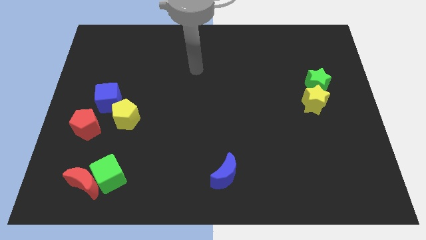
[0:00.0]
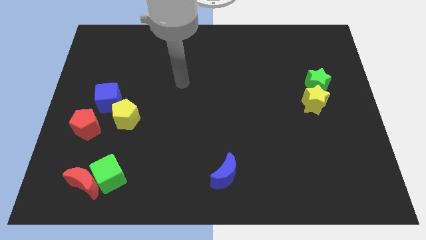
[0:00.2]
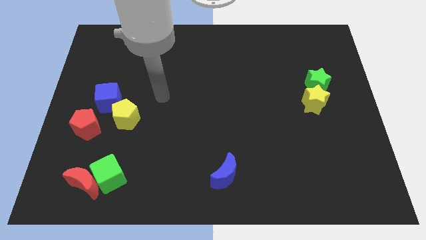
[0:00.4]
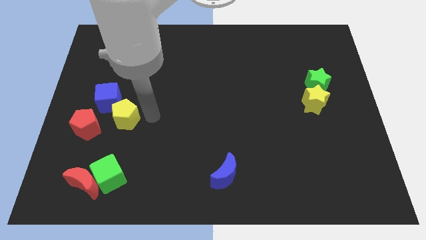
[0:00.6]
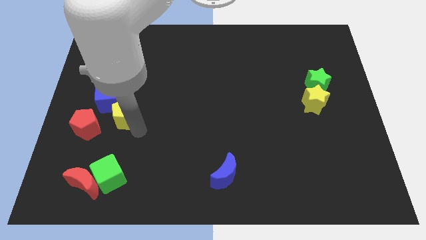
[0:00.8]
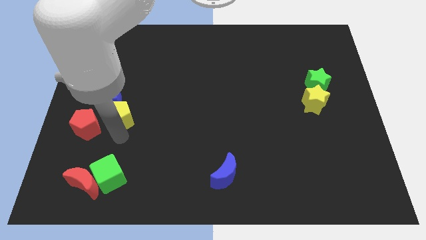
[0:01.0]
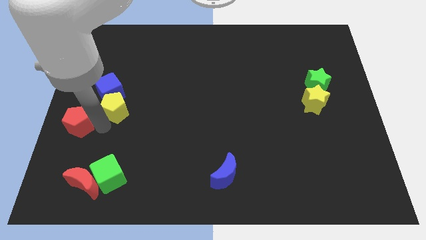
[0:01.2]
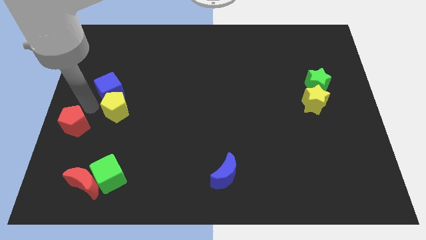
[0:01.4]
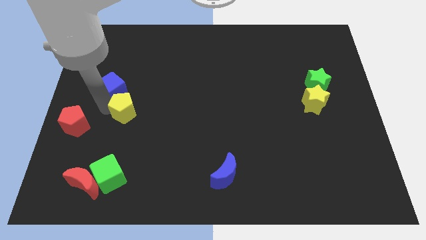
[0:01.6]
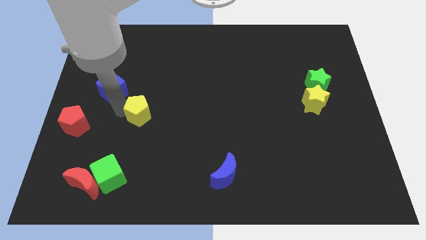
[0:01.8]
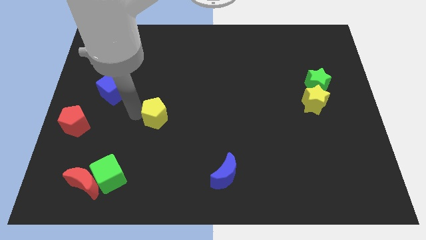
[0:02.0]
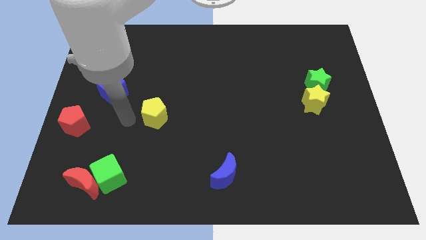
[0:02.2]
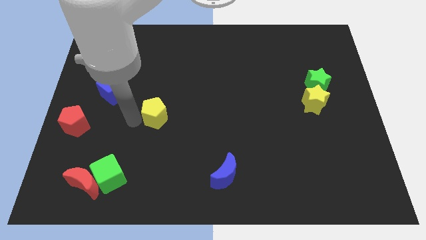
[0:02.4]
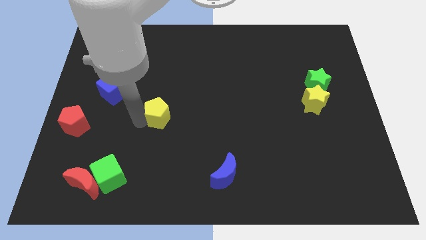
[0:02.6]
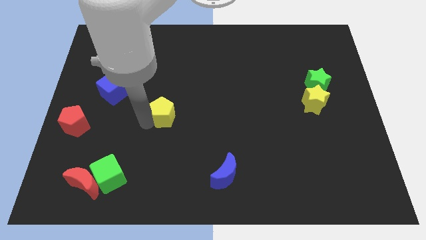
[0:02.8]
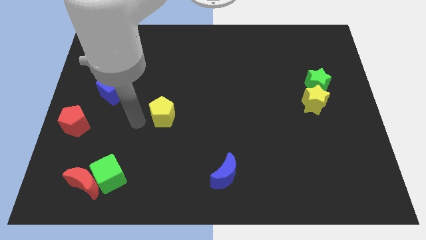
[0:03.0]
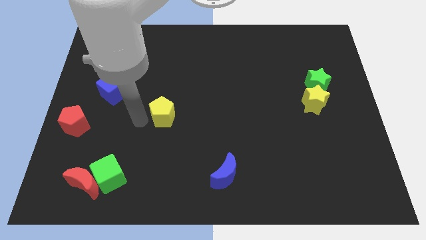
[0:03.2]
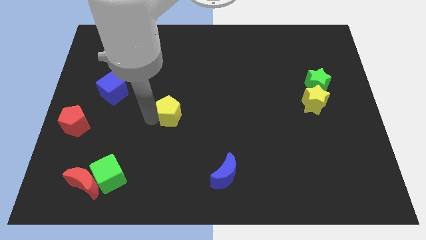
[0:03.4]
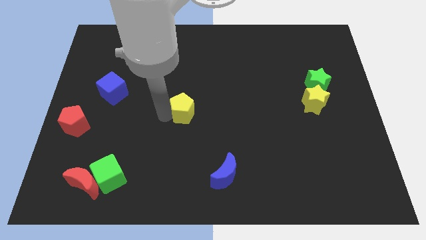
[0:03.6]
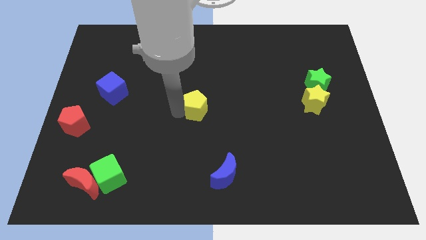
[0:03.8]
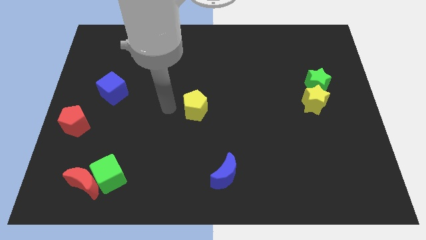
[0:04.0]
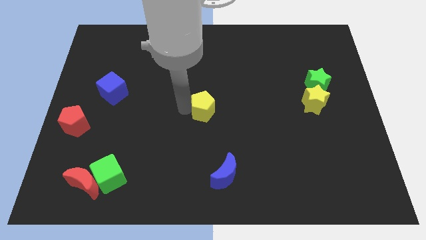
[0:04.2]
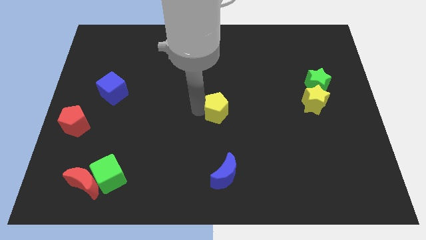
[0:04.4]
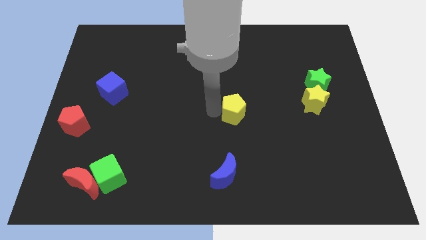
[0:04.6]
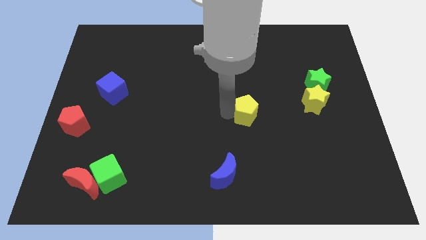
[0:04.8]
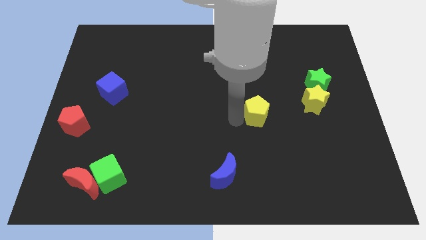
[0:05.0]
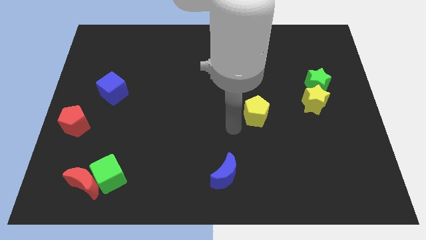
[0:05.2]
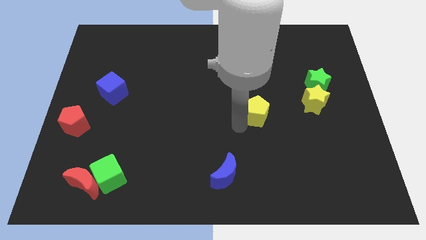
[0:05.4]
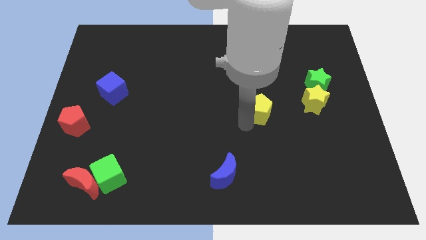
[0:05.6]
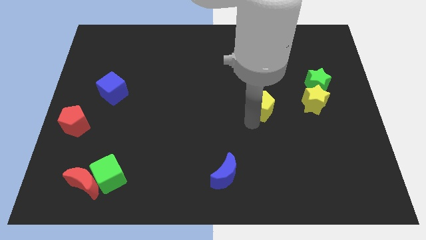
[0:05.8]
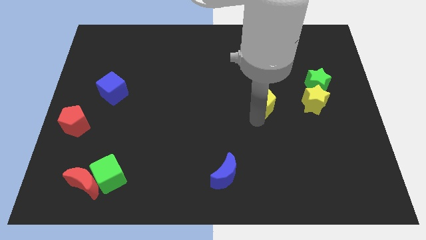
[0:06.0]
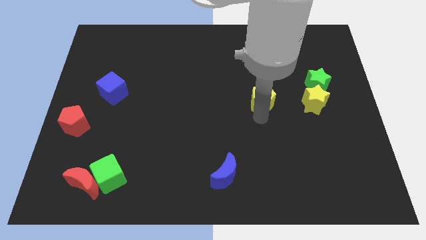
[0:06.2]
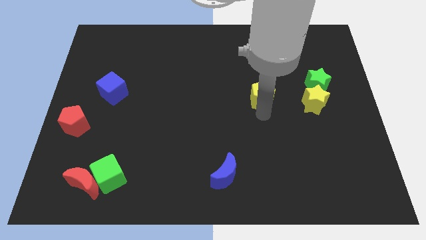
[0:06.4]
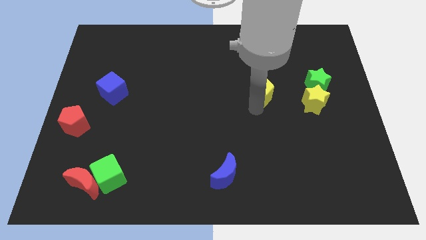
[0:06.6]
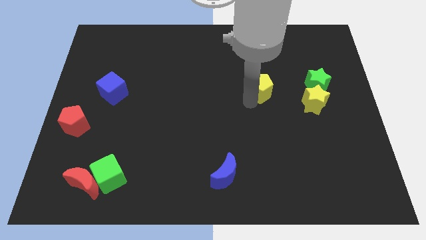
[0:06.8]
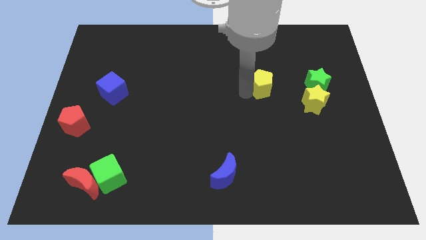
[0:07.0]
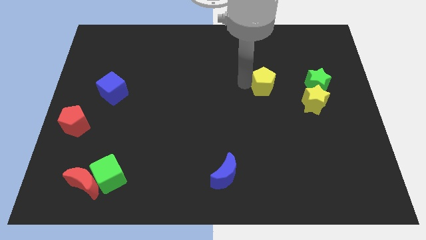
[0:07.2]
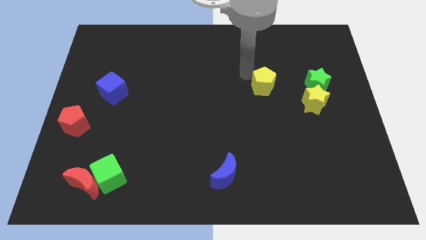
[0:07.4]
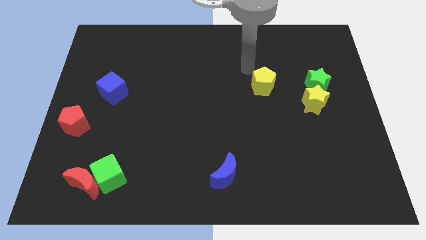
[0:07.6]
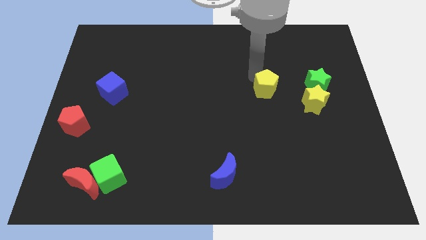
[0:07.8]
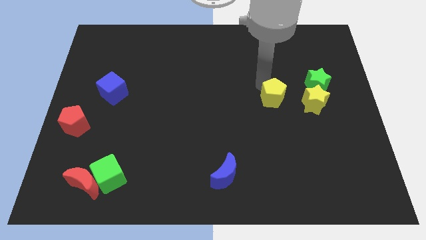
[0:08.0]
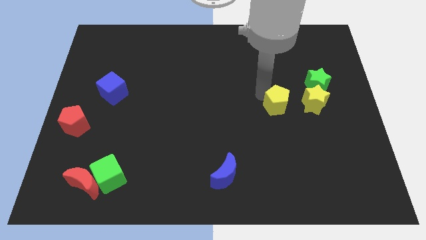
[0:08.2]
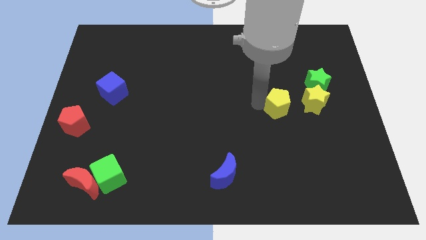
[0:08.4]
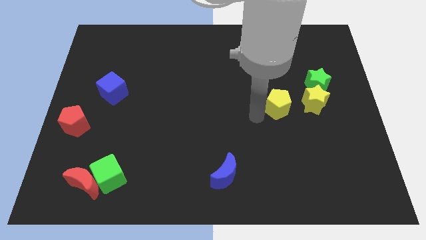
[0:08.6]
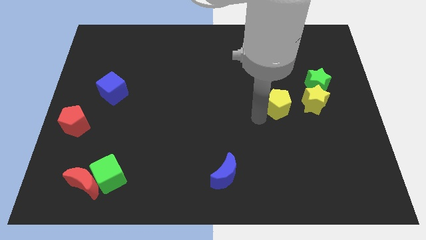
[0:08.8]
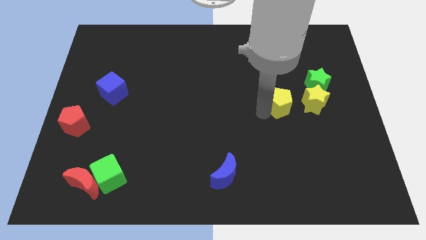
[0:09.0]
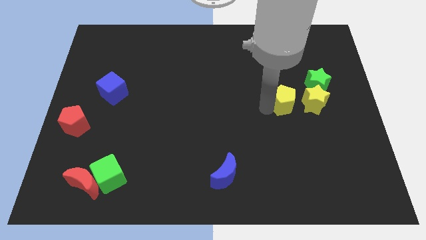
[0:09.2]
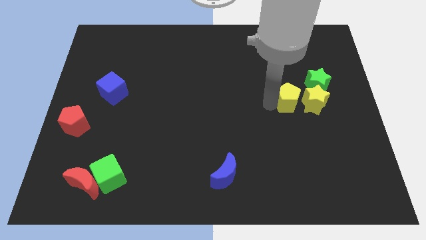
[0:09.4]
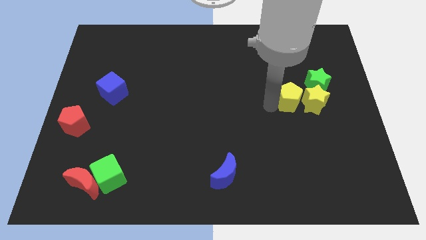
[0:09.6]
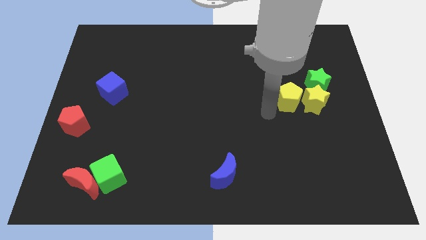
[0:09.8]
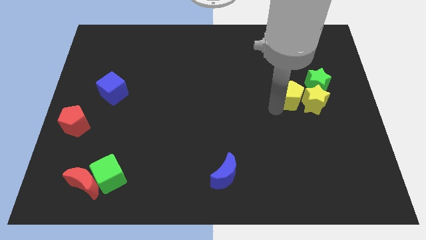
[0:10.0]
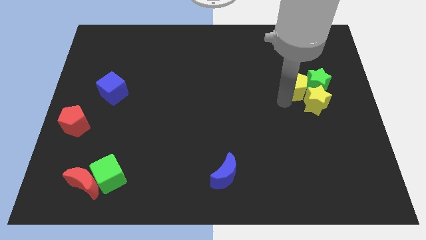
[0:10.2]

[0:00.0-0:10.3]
move the yellow pentagon towards the green star

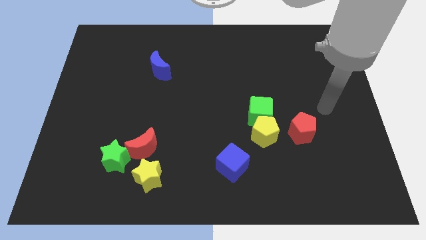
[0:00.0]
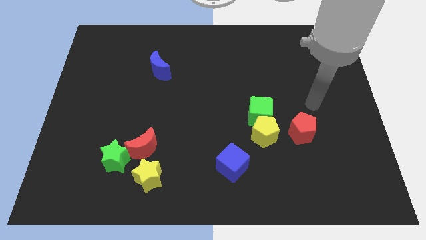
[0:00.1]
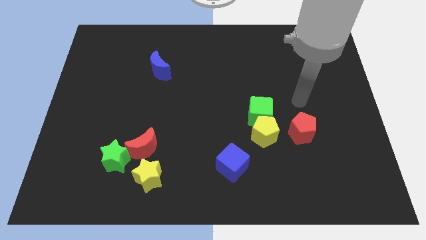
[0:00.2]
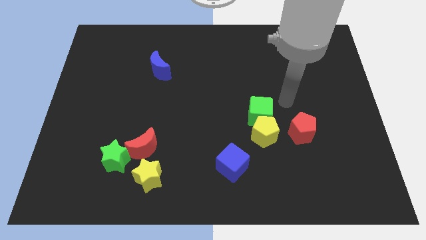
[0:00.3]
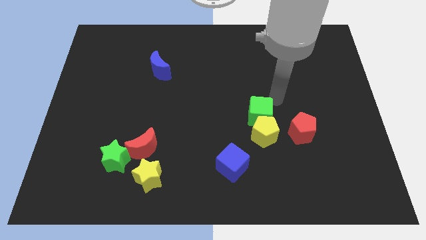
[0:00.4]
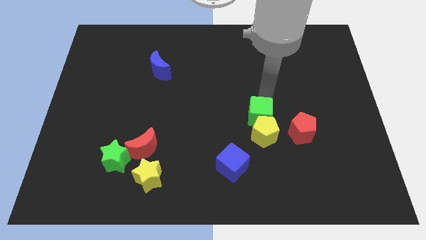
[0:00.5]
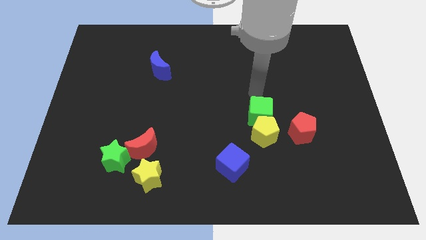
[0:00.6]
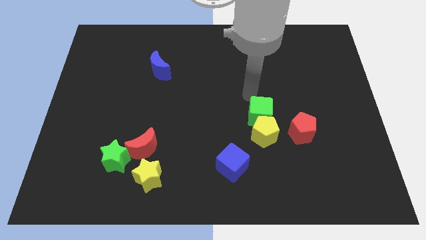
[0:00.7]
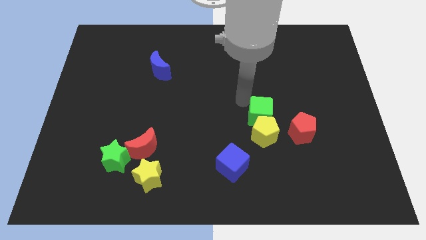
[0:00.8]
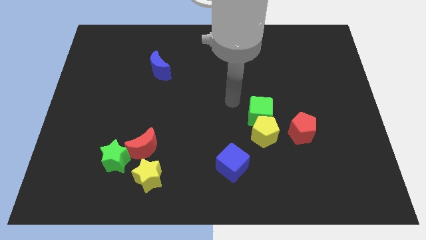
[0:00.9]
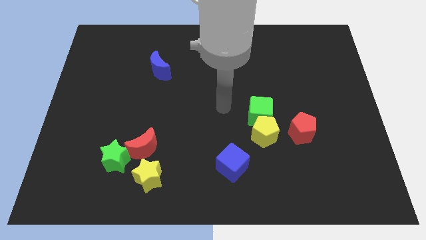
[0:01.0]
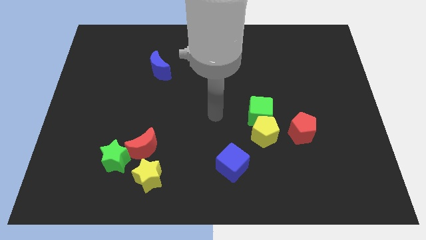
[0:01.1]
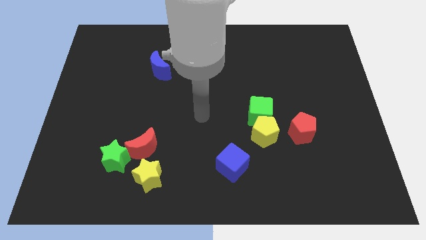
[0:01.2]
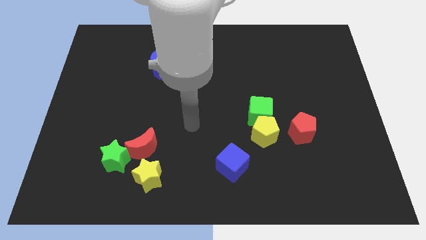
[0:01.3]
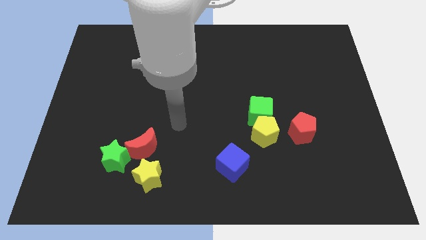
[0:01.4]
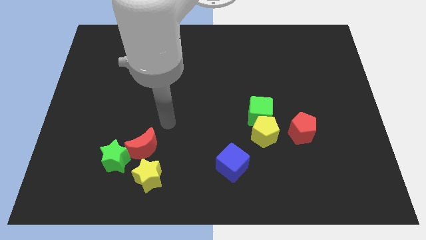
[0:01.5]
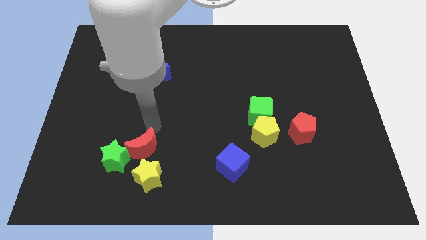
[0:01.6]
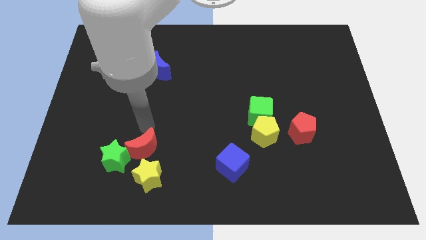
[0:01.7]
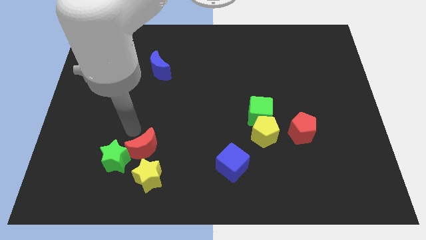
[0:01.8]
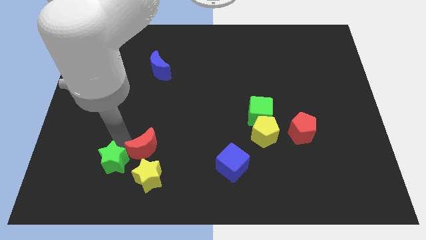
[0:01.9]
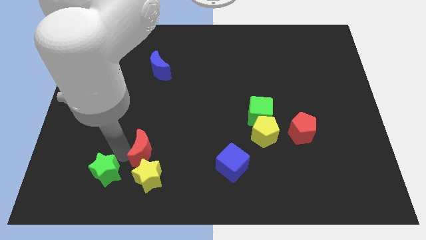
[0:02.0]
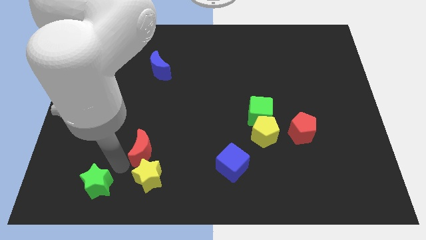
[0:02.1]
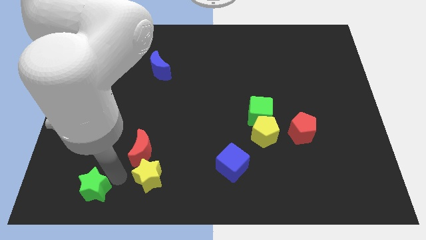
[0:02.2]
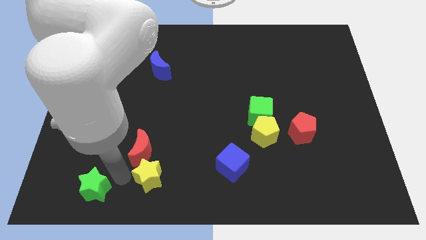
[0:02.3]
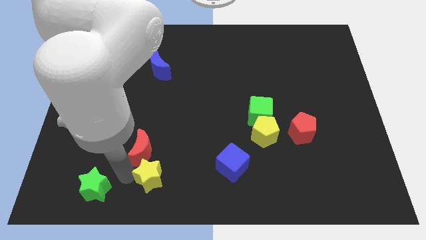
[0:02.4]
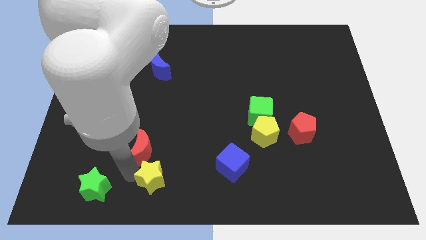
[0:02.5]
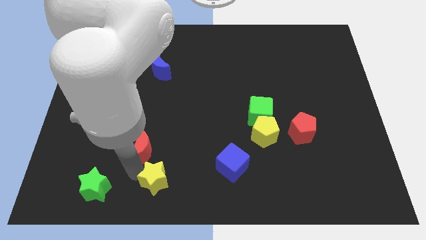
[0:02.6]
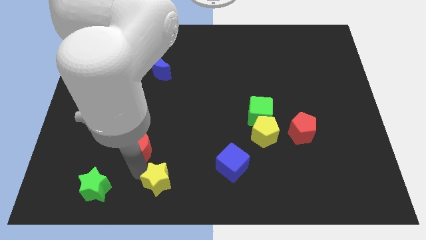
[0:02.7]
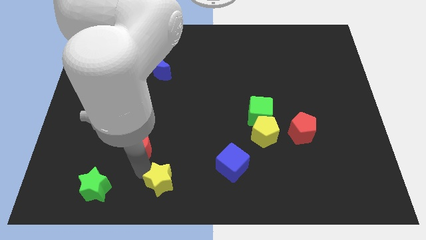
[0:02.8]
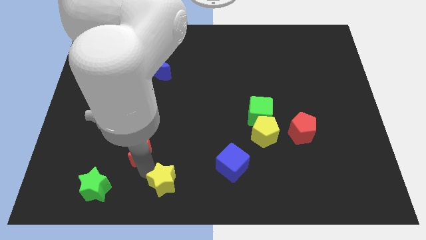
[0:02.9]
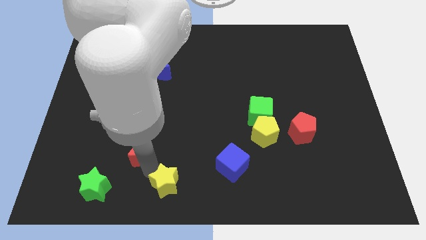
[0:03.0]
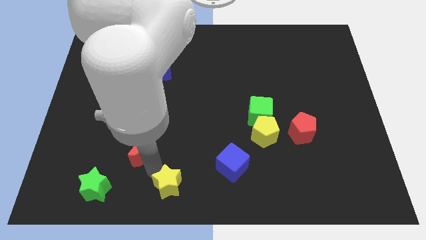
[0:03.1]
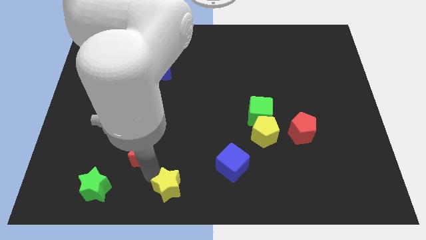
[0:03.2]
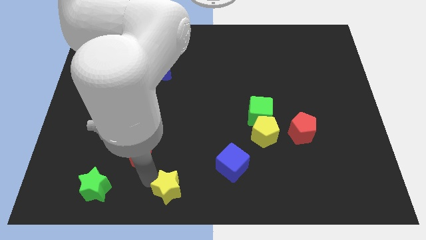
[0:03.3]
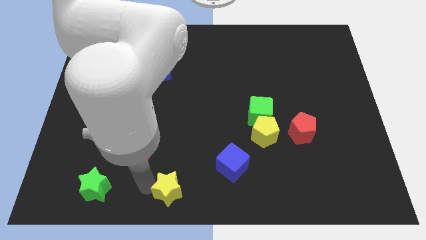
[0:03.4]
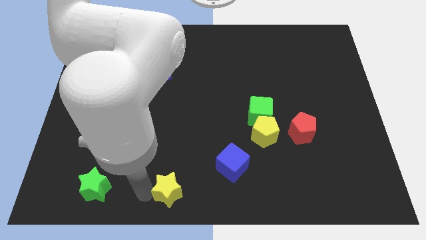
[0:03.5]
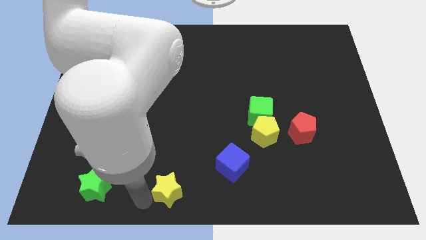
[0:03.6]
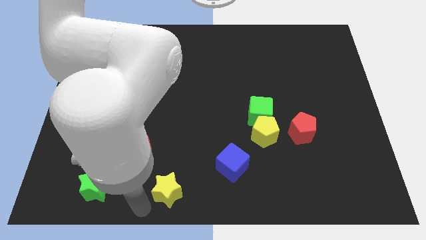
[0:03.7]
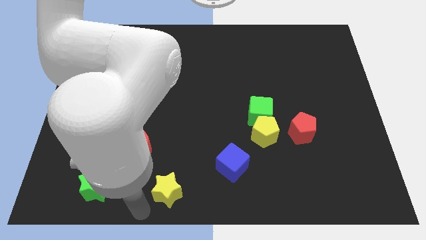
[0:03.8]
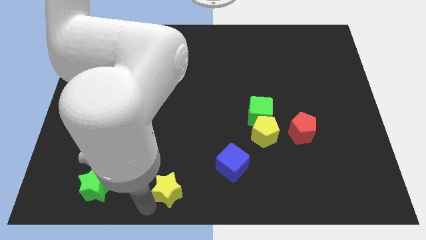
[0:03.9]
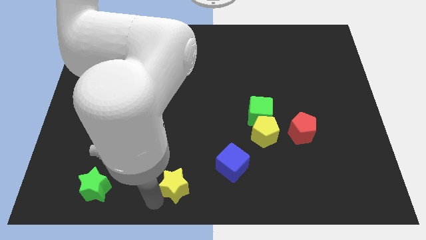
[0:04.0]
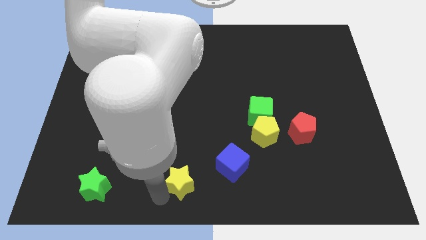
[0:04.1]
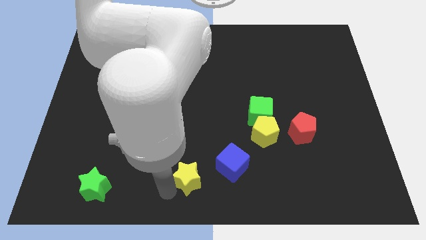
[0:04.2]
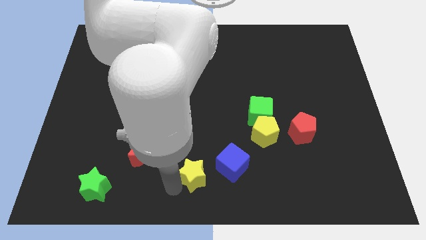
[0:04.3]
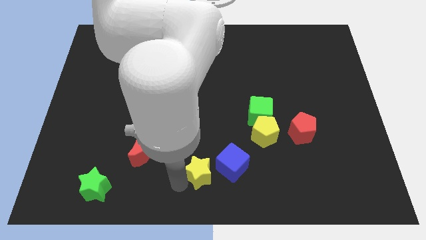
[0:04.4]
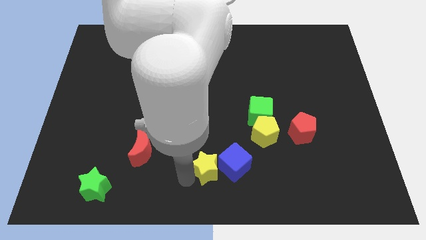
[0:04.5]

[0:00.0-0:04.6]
push the yellow star close to the blue cube
